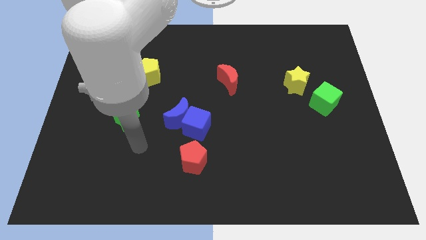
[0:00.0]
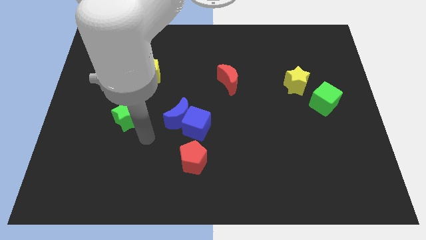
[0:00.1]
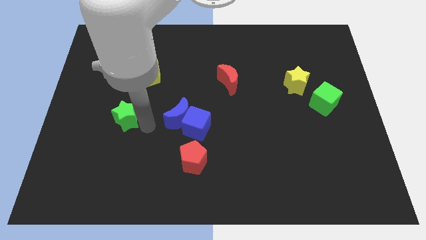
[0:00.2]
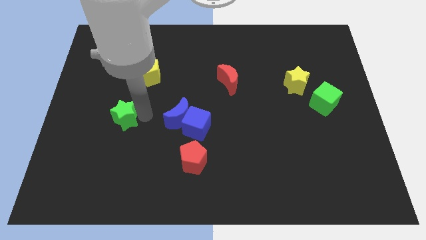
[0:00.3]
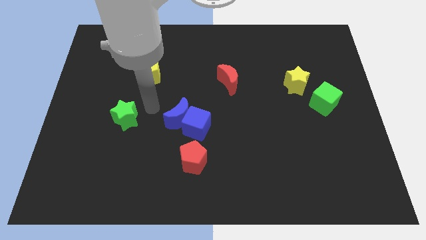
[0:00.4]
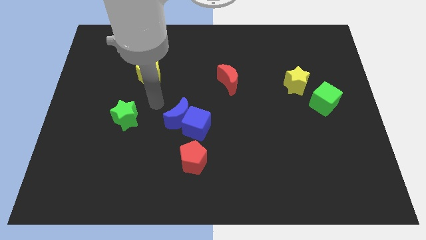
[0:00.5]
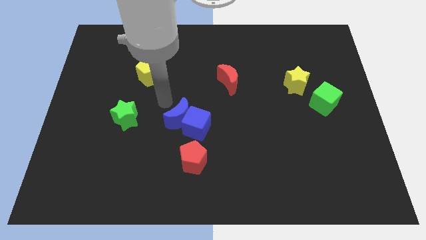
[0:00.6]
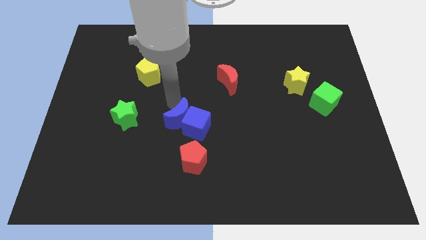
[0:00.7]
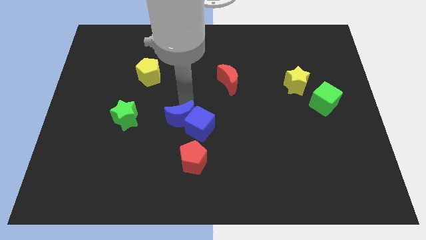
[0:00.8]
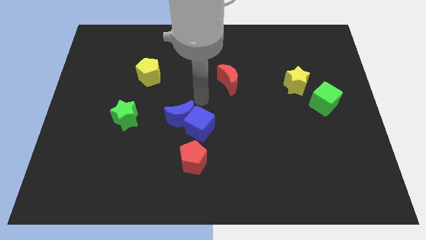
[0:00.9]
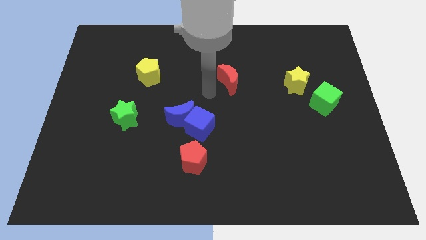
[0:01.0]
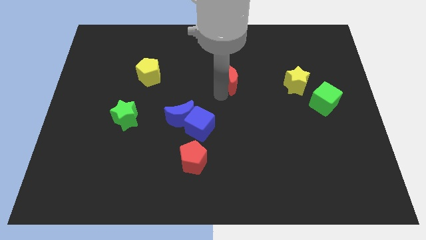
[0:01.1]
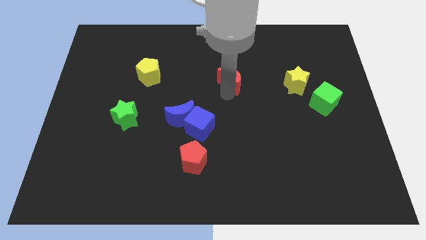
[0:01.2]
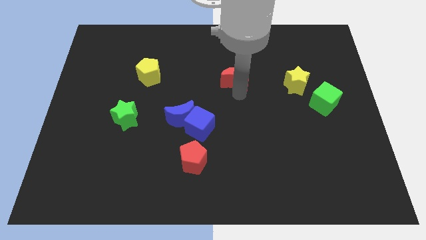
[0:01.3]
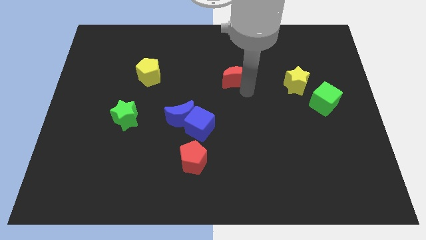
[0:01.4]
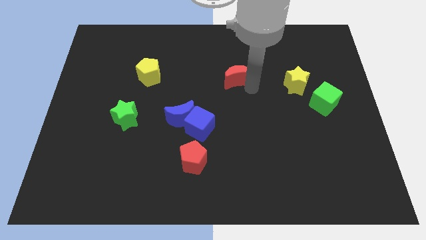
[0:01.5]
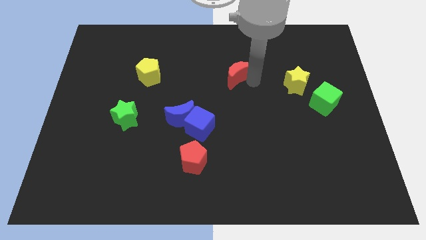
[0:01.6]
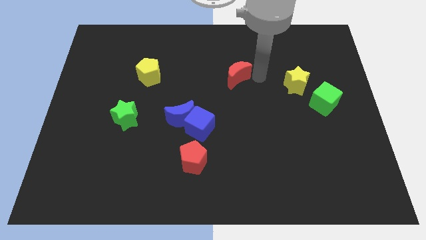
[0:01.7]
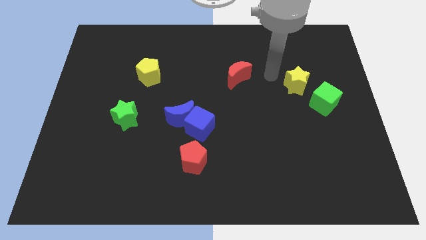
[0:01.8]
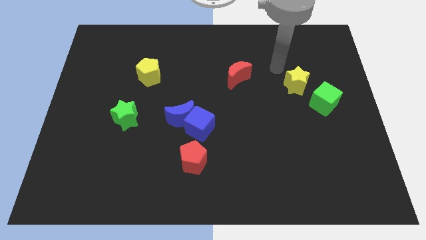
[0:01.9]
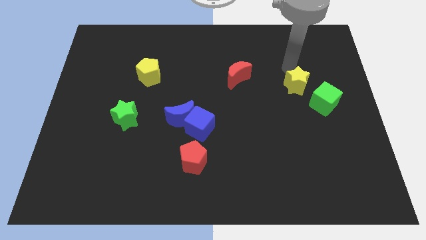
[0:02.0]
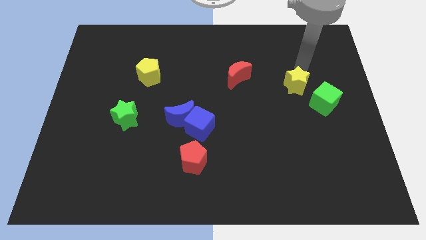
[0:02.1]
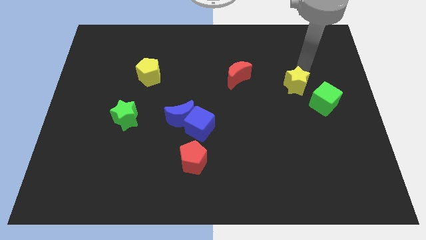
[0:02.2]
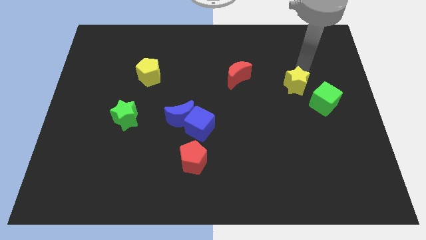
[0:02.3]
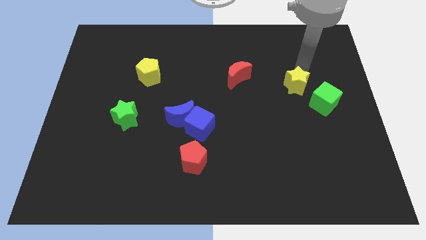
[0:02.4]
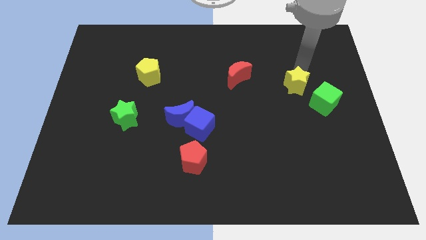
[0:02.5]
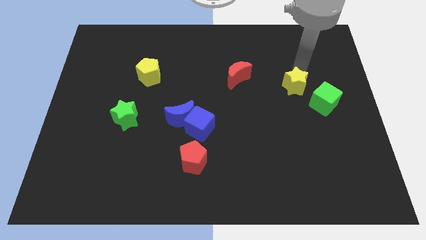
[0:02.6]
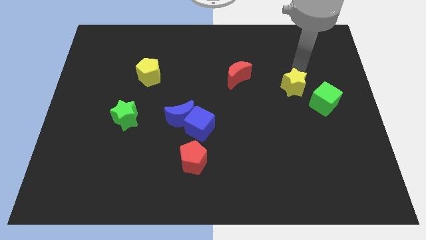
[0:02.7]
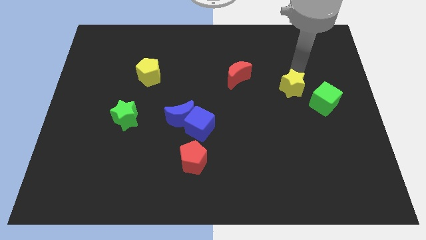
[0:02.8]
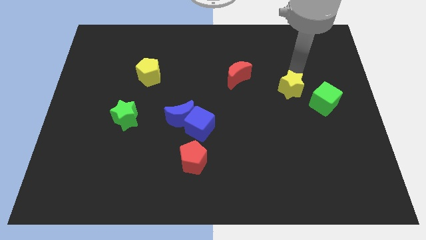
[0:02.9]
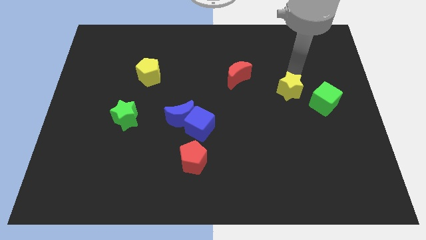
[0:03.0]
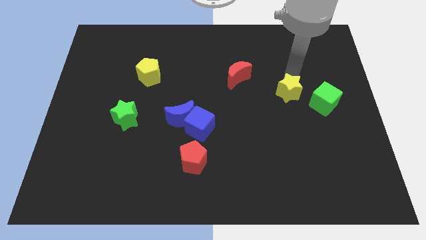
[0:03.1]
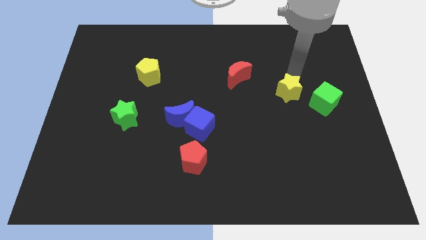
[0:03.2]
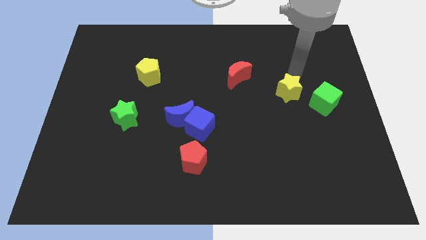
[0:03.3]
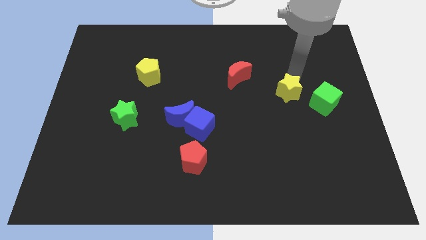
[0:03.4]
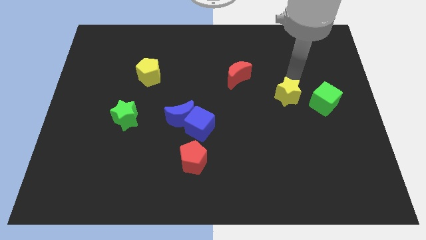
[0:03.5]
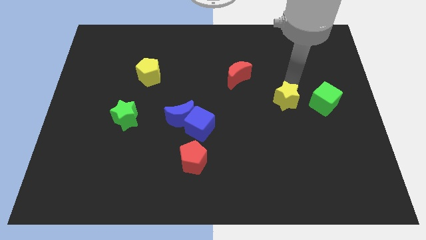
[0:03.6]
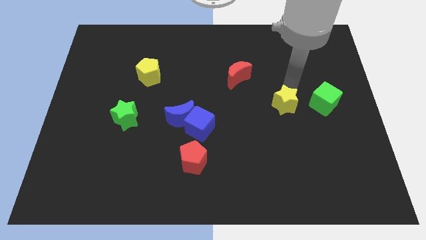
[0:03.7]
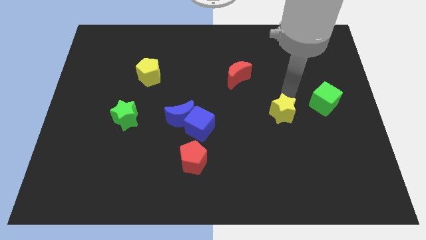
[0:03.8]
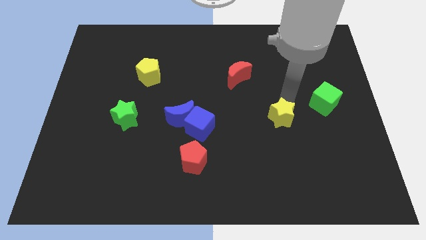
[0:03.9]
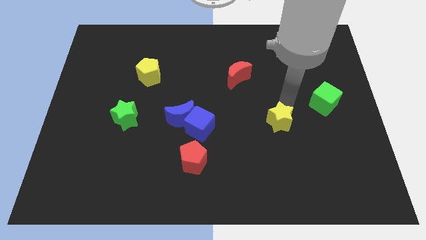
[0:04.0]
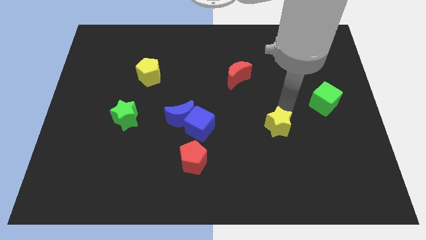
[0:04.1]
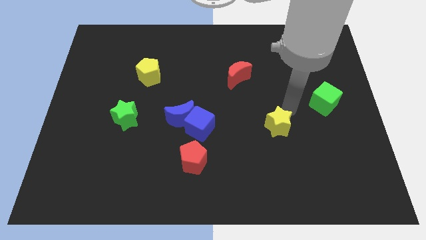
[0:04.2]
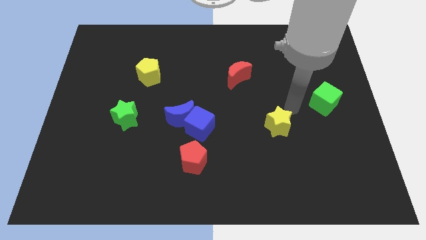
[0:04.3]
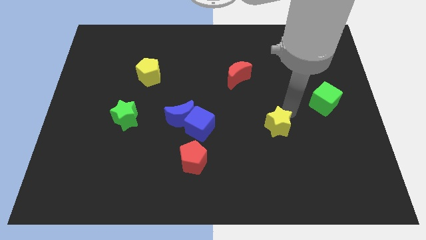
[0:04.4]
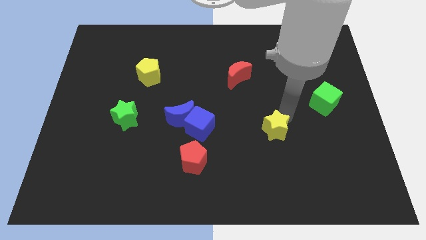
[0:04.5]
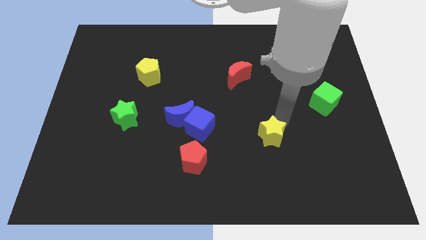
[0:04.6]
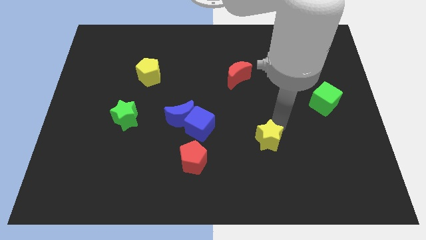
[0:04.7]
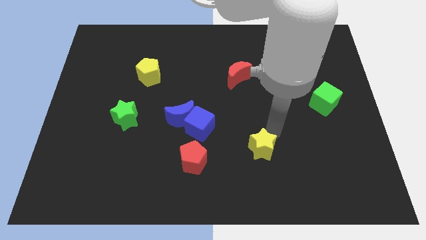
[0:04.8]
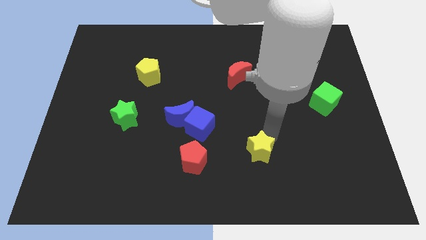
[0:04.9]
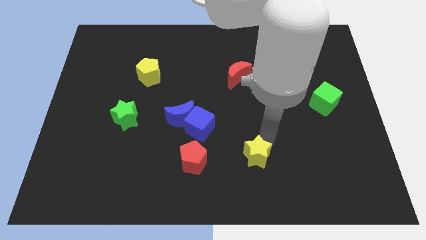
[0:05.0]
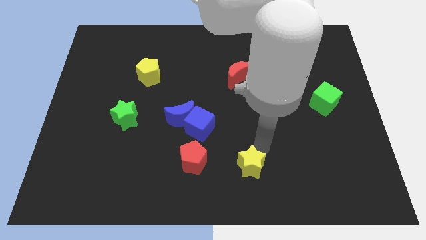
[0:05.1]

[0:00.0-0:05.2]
push the yellow star to the bottom

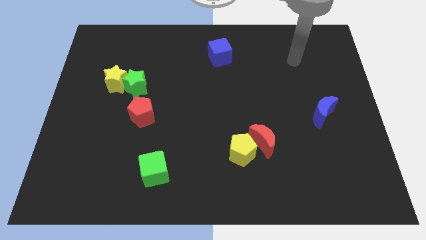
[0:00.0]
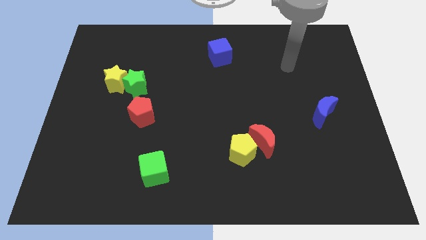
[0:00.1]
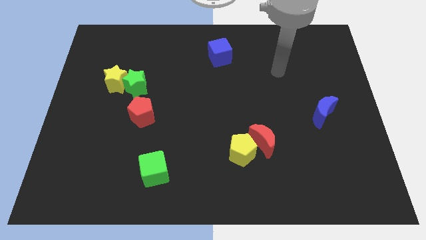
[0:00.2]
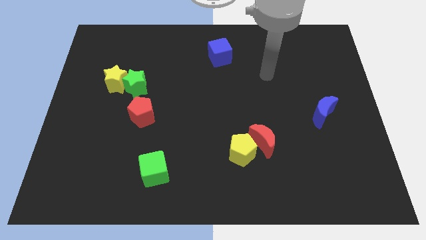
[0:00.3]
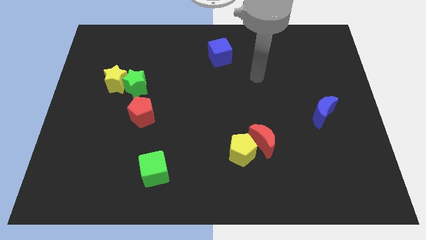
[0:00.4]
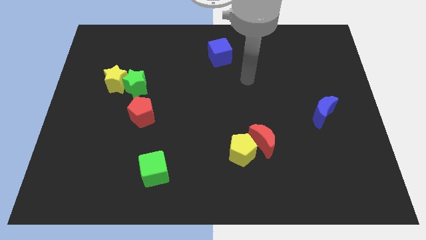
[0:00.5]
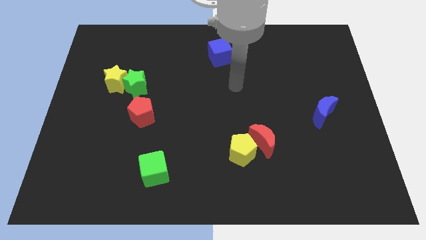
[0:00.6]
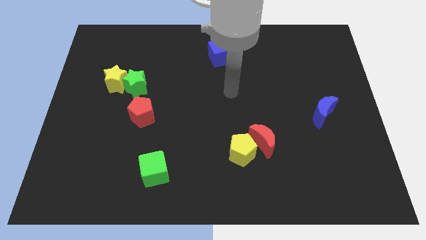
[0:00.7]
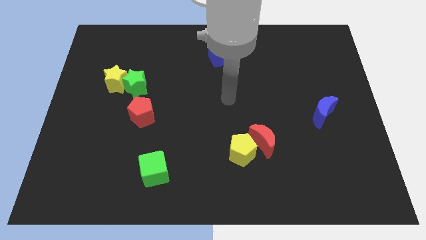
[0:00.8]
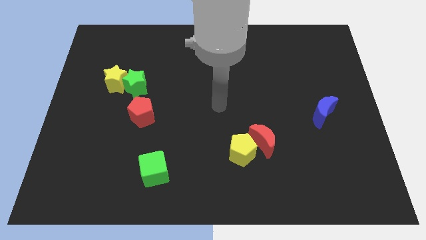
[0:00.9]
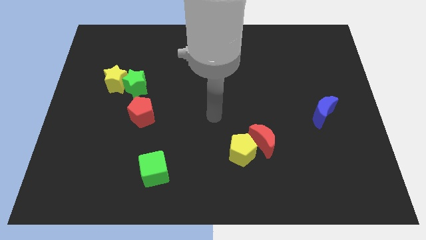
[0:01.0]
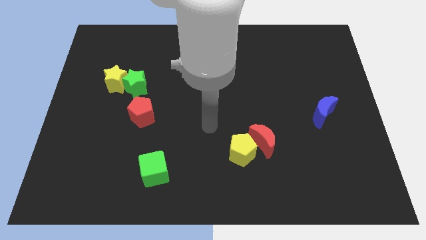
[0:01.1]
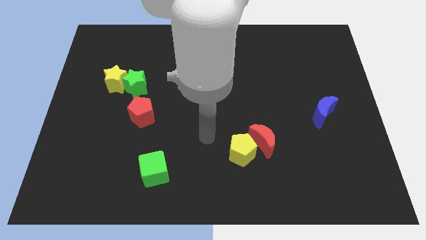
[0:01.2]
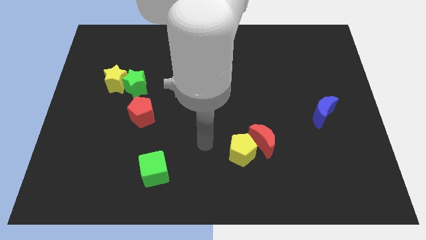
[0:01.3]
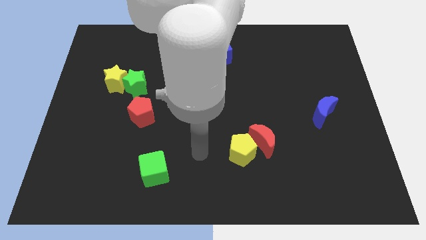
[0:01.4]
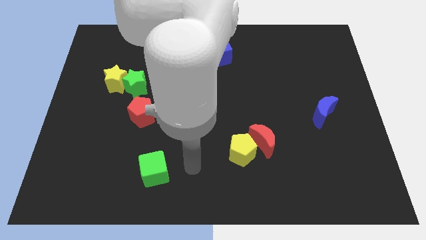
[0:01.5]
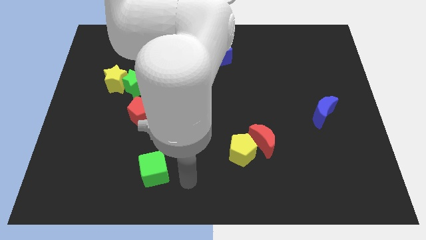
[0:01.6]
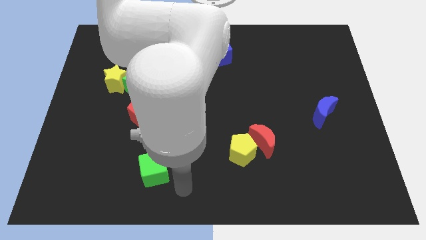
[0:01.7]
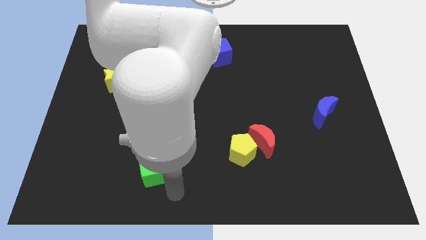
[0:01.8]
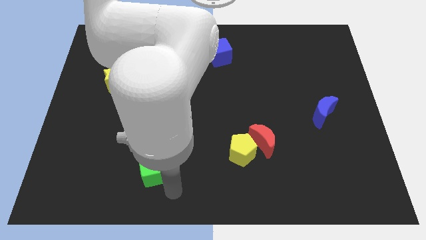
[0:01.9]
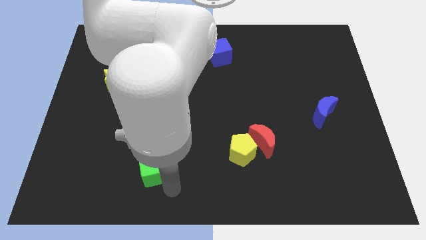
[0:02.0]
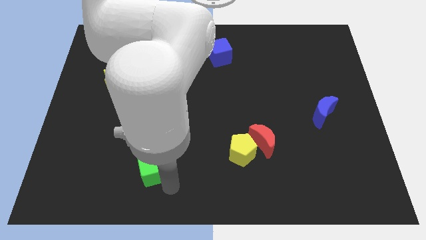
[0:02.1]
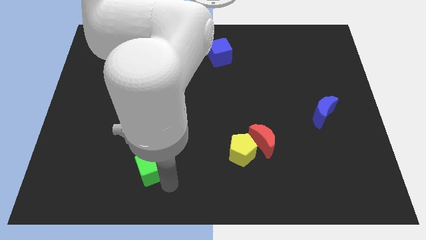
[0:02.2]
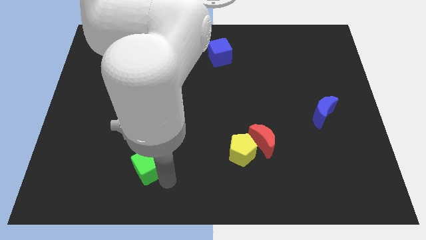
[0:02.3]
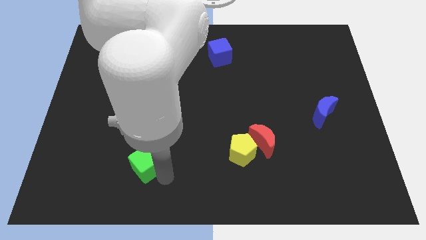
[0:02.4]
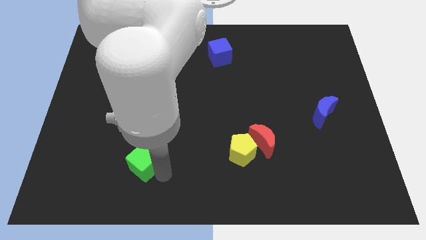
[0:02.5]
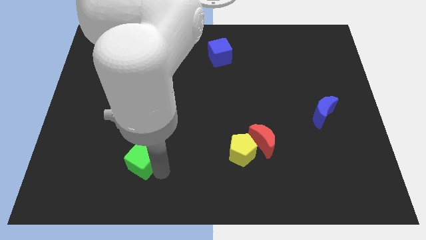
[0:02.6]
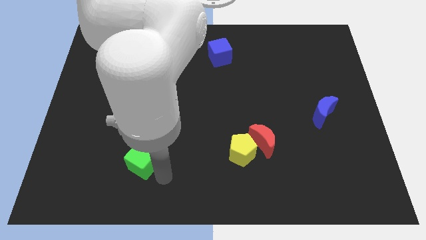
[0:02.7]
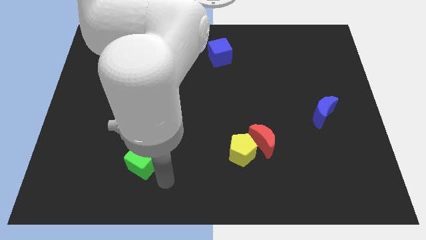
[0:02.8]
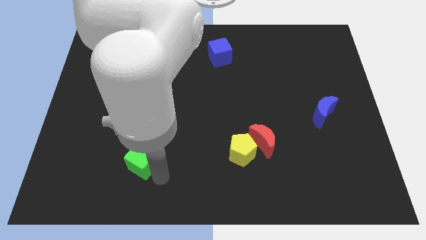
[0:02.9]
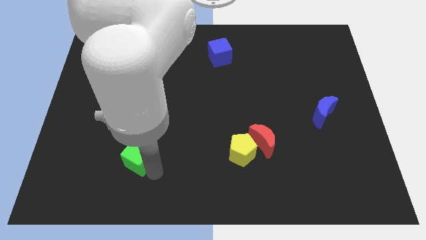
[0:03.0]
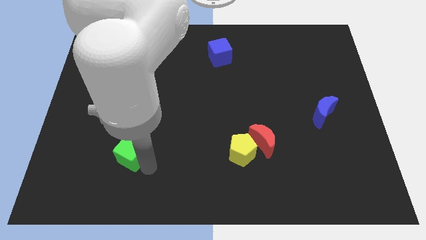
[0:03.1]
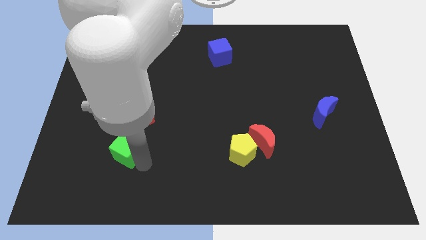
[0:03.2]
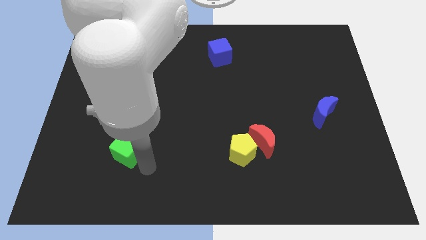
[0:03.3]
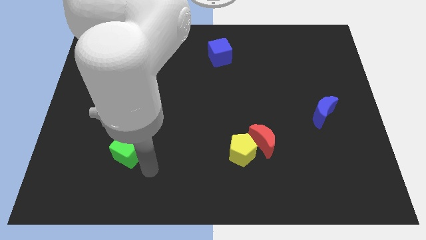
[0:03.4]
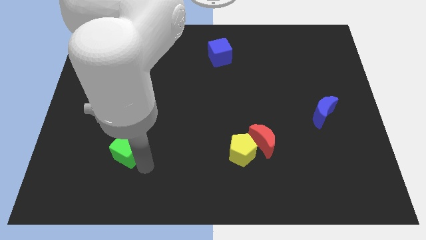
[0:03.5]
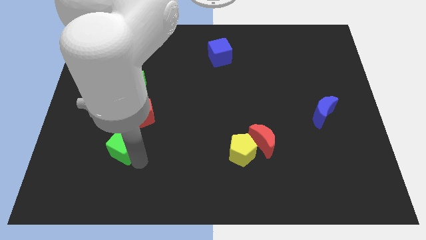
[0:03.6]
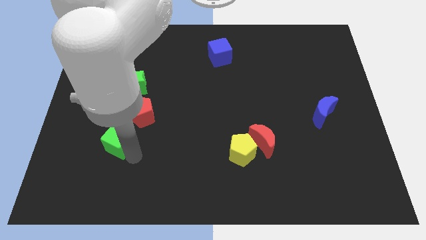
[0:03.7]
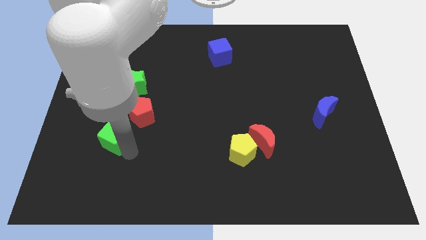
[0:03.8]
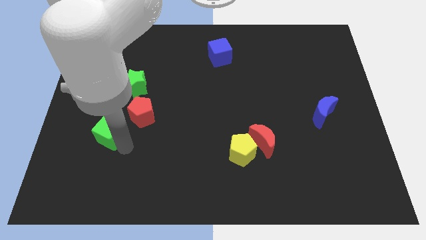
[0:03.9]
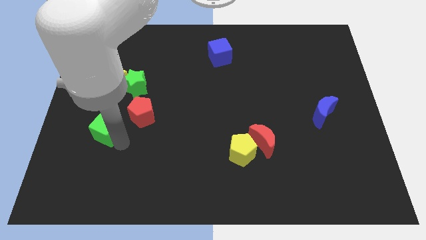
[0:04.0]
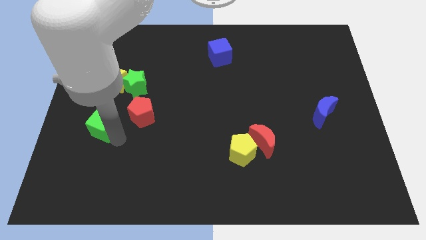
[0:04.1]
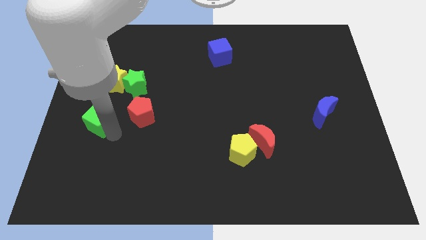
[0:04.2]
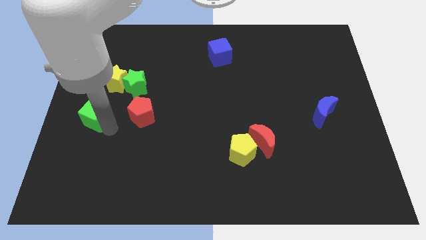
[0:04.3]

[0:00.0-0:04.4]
push the green cube to the left side
